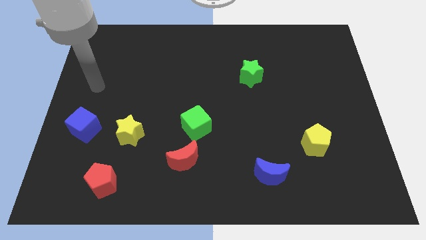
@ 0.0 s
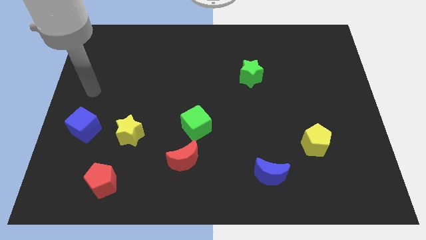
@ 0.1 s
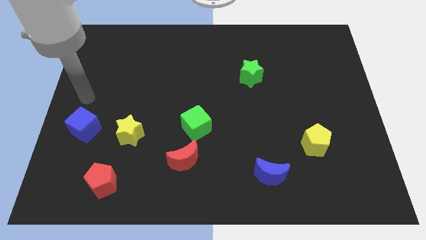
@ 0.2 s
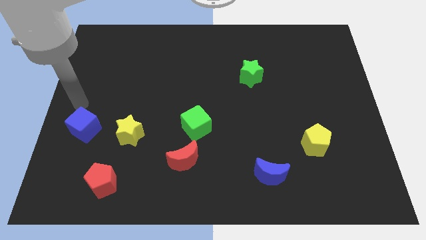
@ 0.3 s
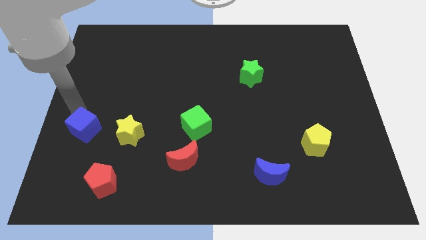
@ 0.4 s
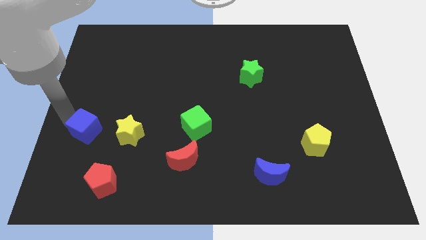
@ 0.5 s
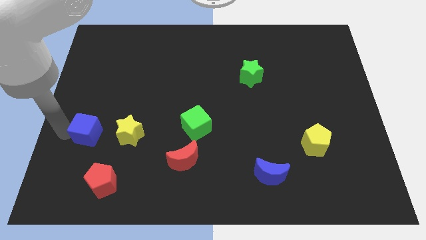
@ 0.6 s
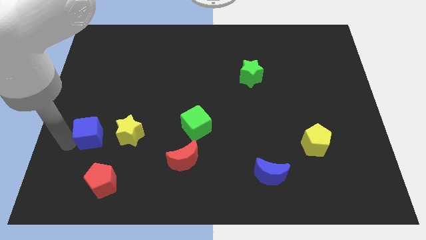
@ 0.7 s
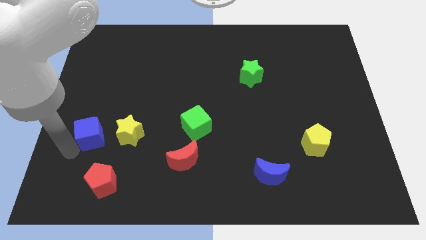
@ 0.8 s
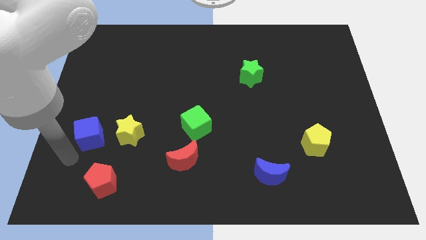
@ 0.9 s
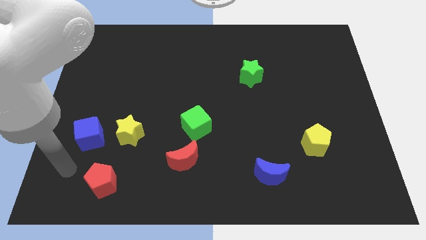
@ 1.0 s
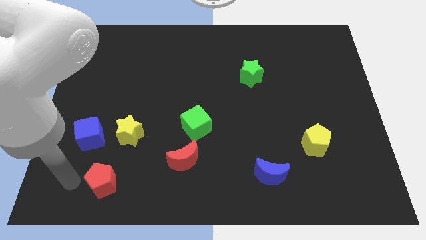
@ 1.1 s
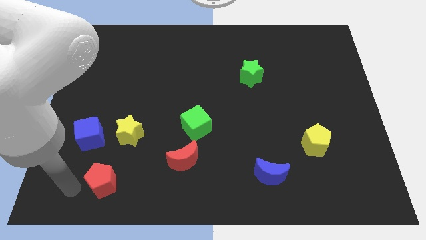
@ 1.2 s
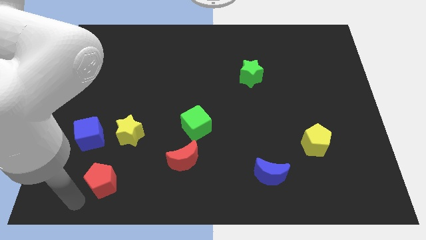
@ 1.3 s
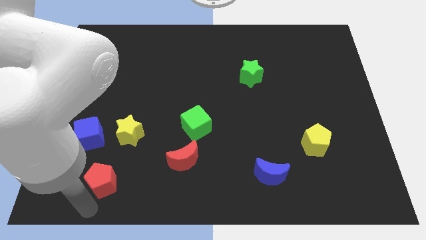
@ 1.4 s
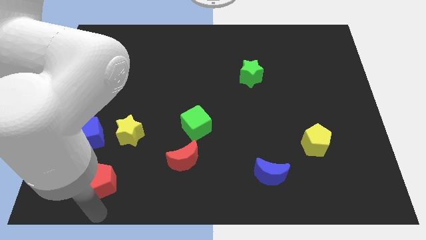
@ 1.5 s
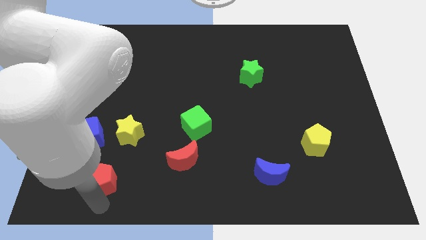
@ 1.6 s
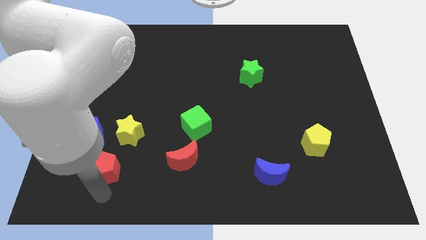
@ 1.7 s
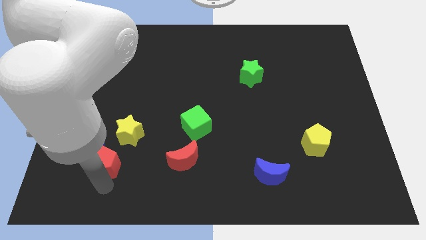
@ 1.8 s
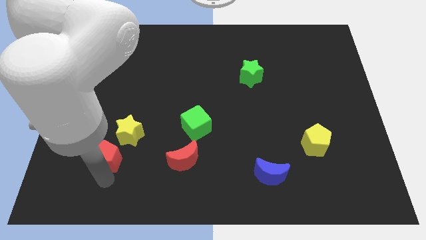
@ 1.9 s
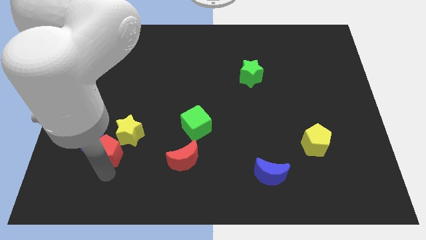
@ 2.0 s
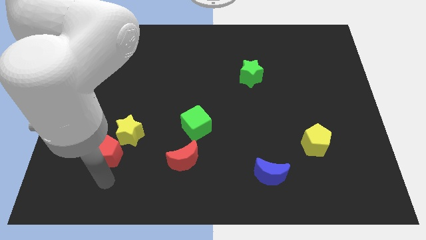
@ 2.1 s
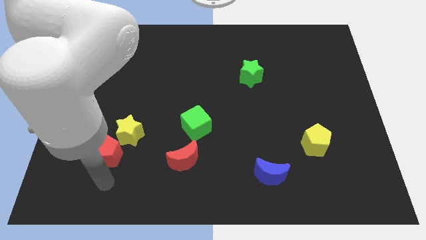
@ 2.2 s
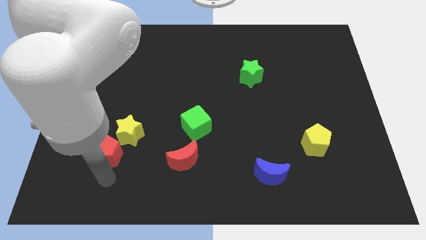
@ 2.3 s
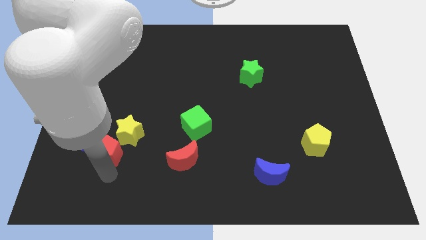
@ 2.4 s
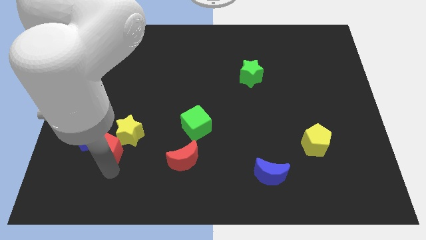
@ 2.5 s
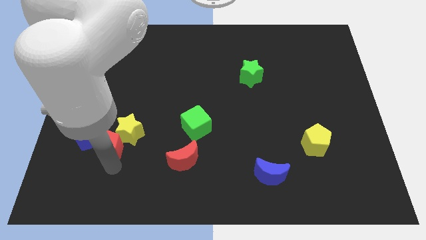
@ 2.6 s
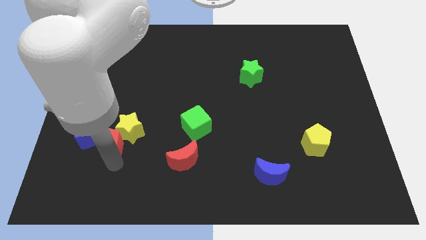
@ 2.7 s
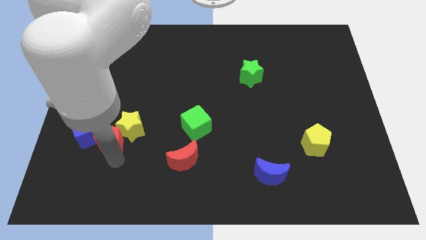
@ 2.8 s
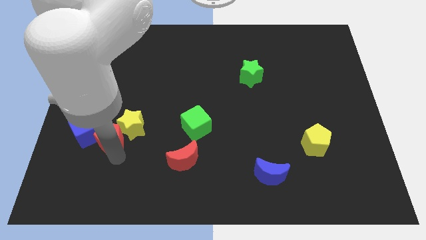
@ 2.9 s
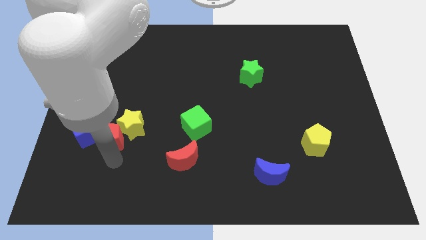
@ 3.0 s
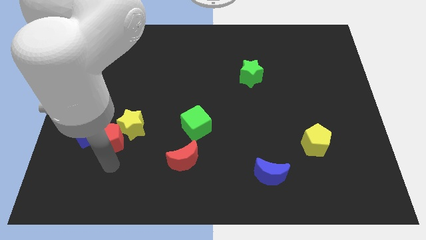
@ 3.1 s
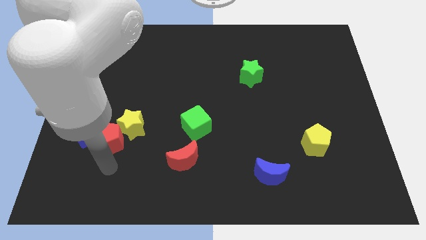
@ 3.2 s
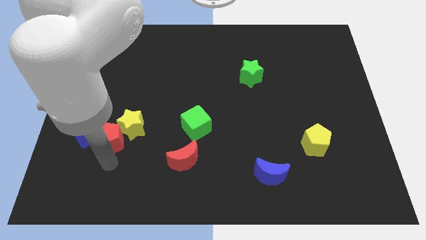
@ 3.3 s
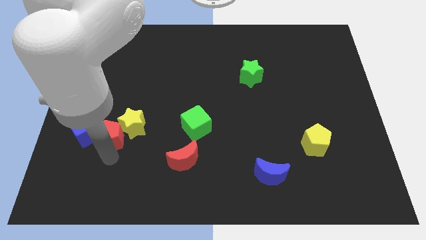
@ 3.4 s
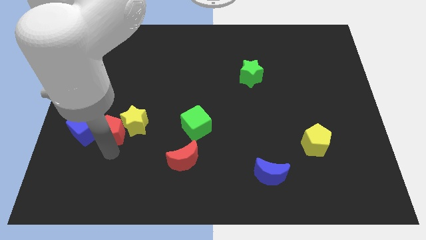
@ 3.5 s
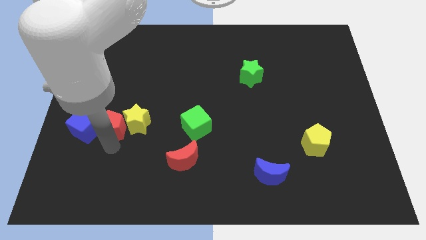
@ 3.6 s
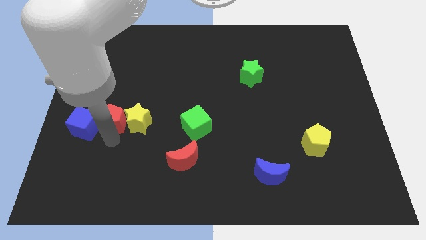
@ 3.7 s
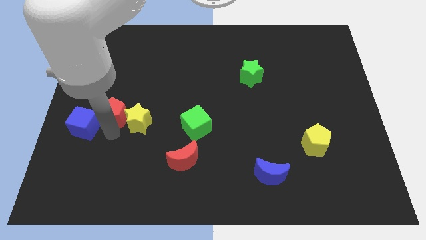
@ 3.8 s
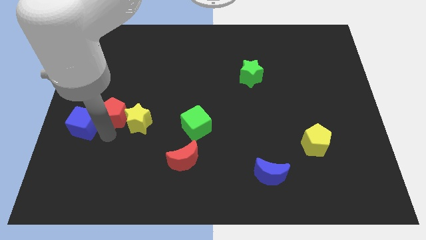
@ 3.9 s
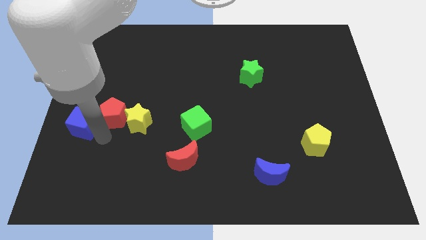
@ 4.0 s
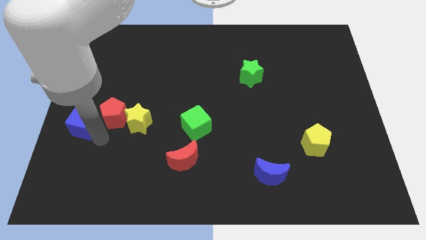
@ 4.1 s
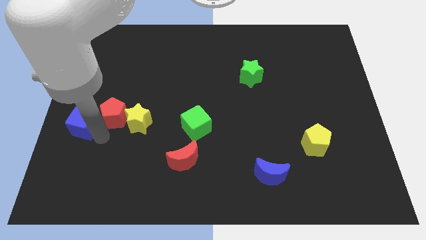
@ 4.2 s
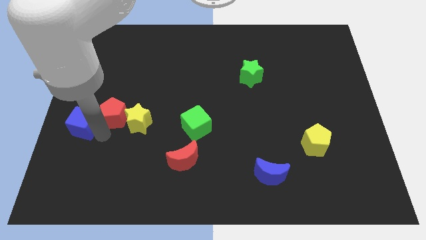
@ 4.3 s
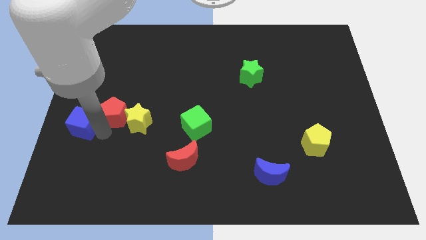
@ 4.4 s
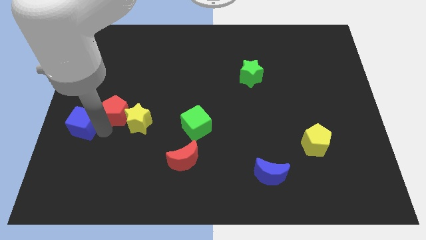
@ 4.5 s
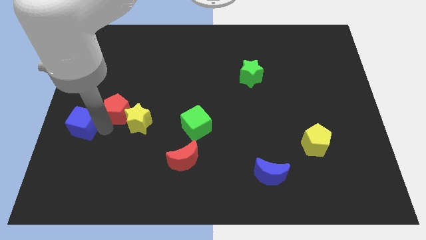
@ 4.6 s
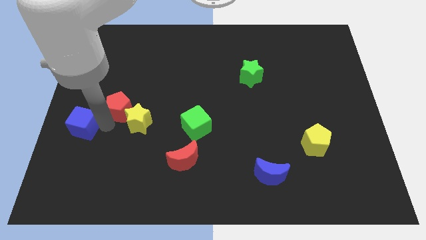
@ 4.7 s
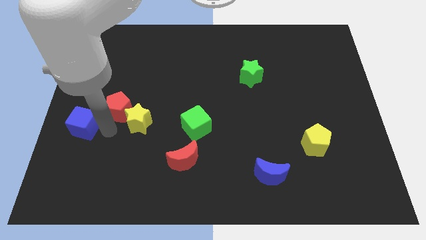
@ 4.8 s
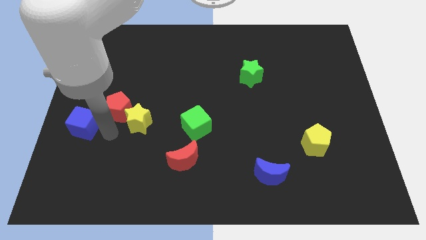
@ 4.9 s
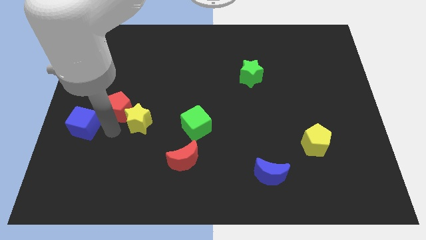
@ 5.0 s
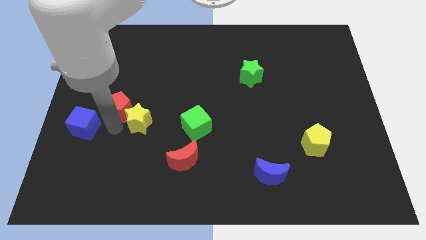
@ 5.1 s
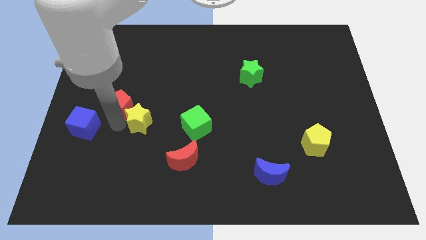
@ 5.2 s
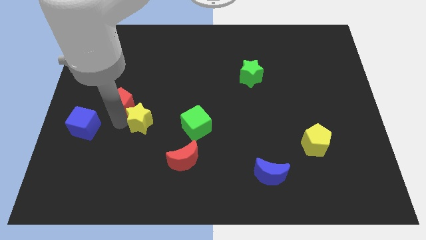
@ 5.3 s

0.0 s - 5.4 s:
push the red pentagon up

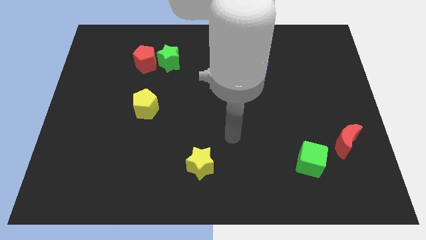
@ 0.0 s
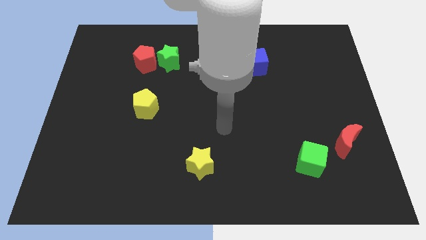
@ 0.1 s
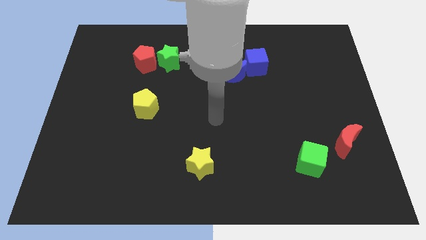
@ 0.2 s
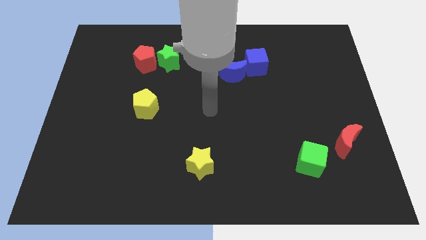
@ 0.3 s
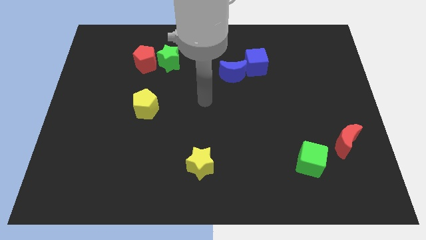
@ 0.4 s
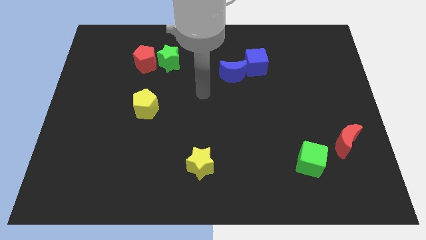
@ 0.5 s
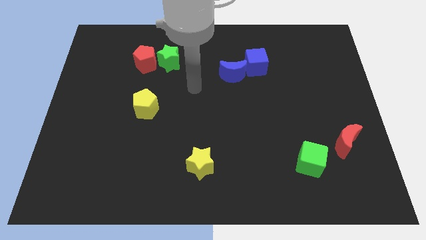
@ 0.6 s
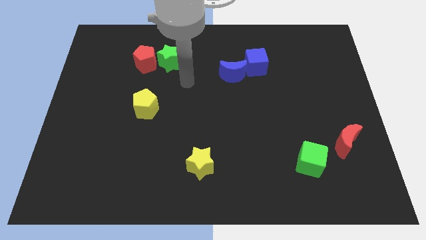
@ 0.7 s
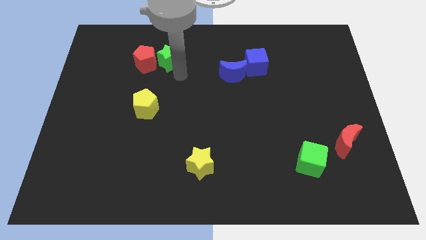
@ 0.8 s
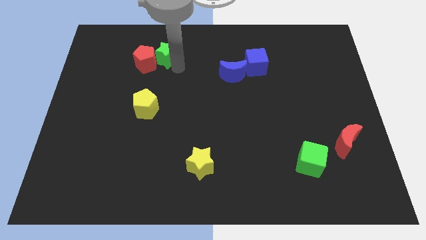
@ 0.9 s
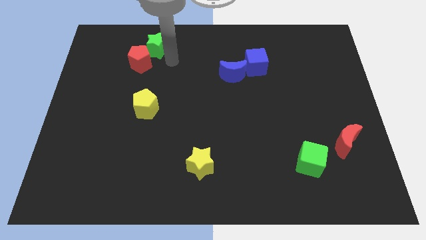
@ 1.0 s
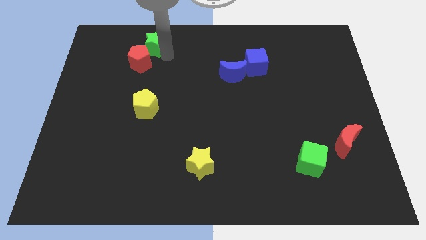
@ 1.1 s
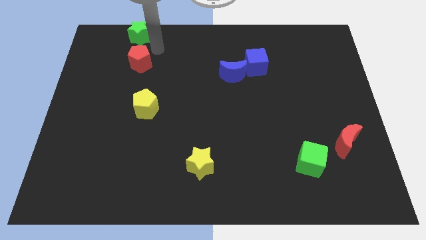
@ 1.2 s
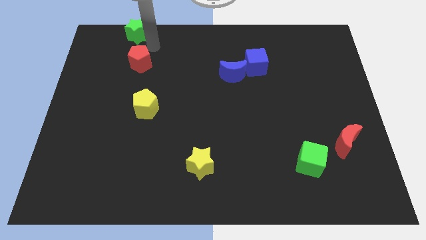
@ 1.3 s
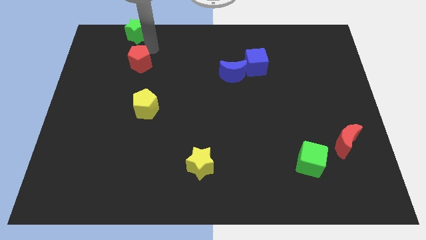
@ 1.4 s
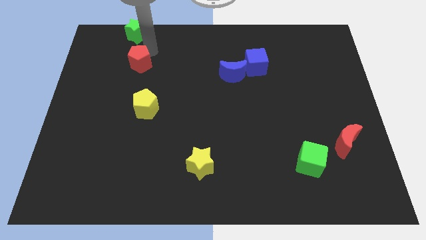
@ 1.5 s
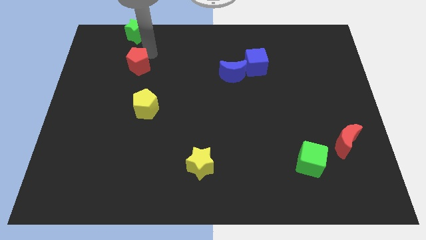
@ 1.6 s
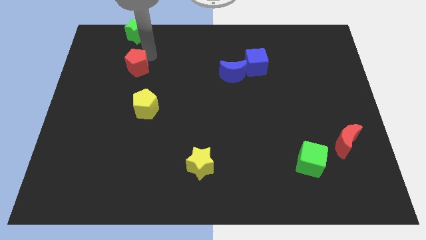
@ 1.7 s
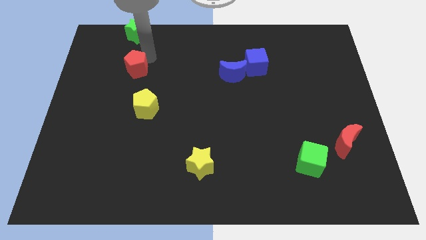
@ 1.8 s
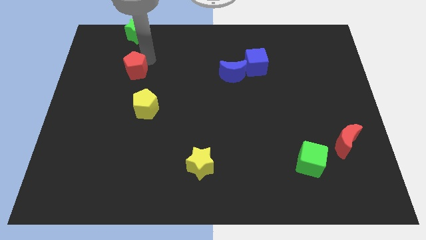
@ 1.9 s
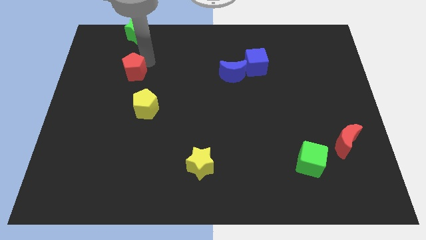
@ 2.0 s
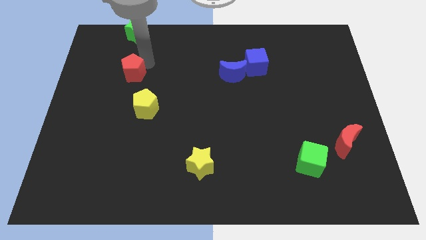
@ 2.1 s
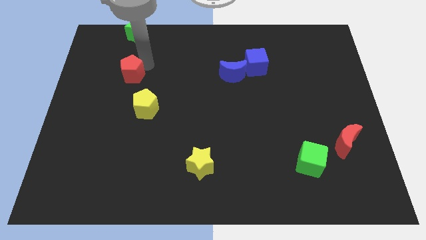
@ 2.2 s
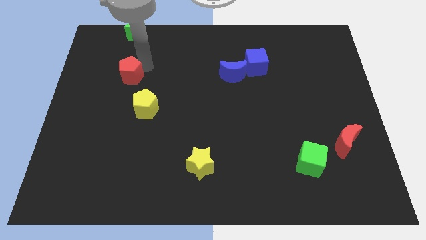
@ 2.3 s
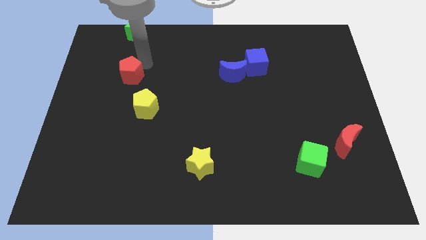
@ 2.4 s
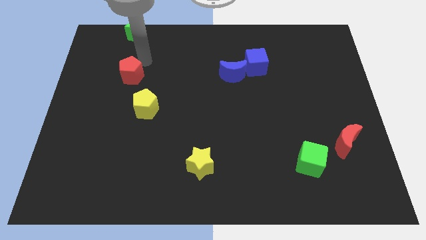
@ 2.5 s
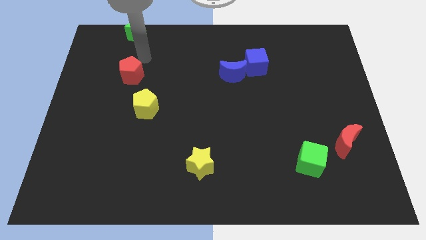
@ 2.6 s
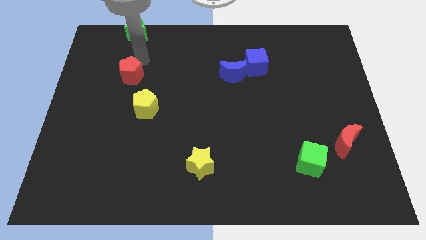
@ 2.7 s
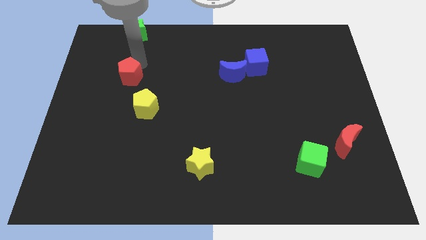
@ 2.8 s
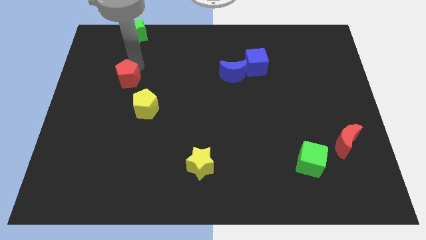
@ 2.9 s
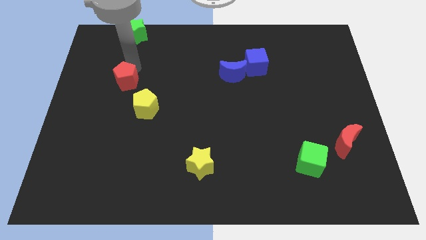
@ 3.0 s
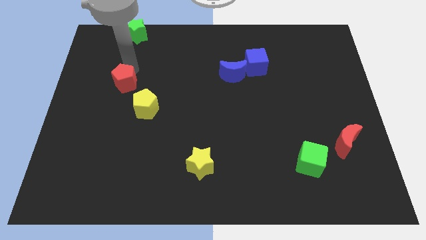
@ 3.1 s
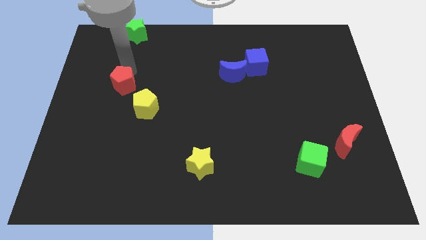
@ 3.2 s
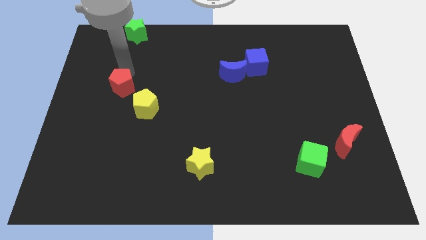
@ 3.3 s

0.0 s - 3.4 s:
slide the red pentagon downwards slightly
